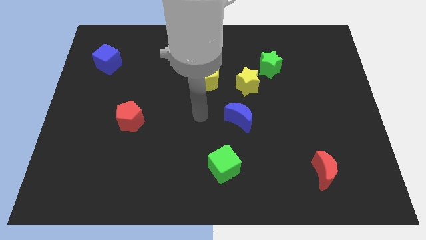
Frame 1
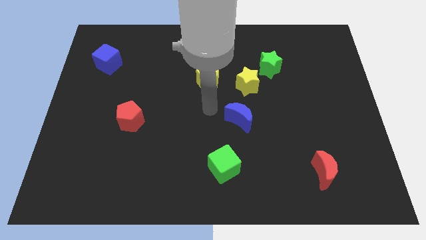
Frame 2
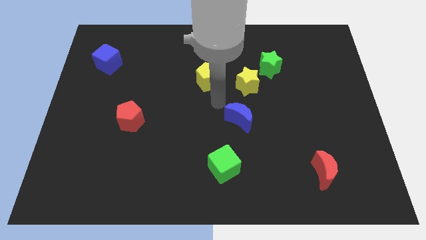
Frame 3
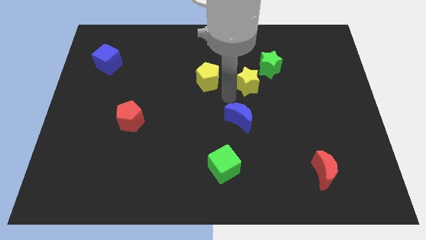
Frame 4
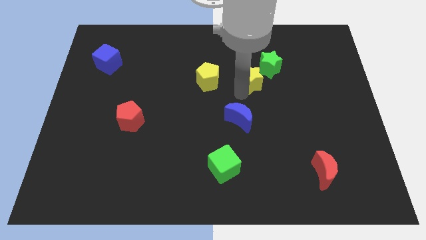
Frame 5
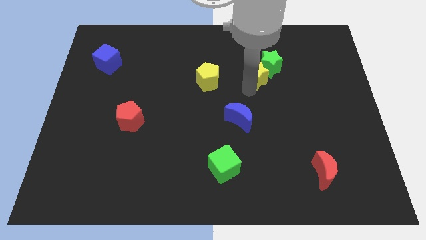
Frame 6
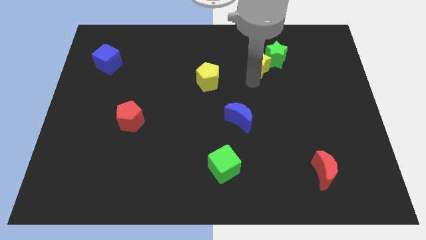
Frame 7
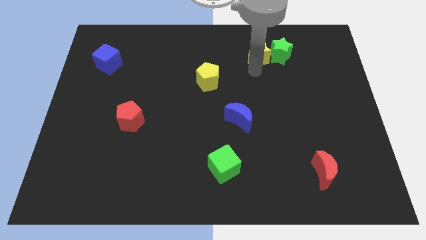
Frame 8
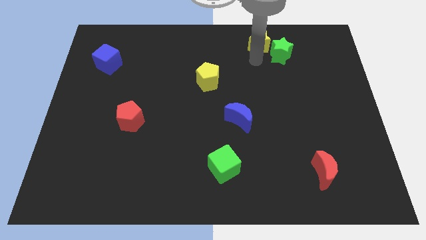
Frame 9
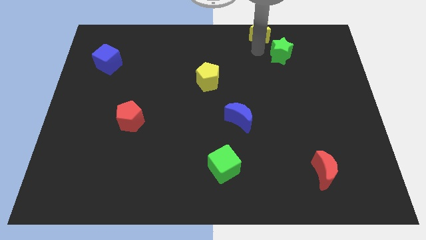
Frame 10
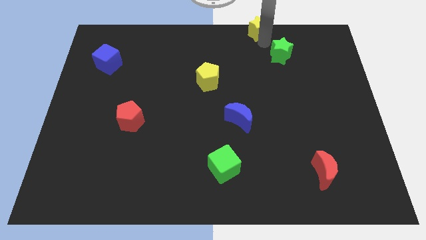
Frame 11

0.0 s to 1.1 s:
move the green star away from the yellow star

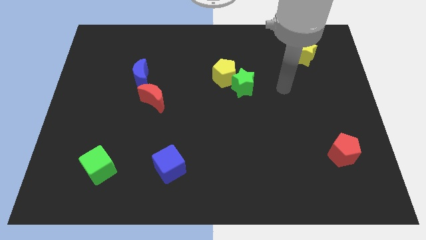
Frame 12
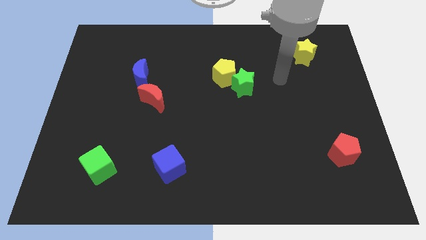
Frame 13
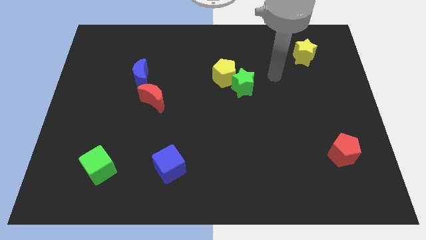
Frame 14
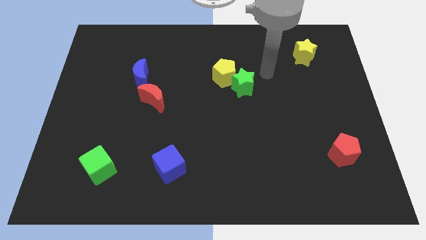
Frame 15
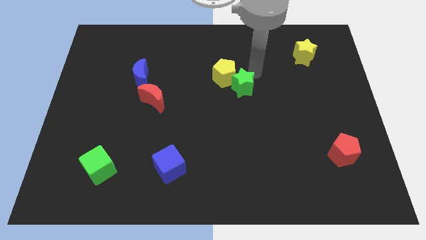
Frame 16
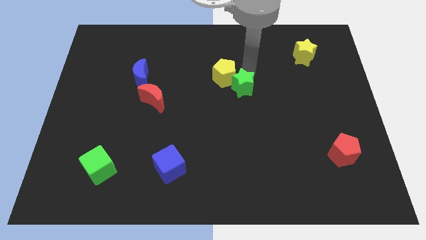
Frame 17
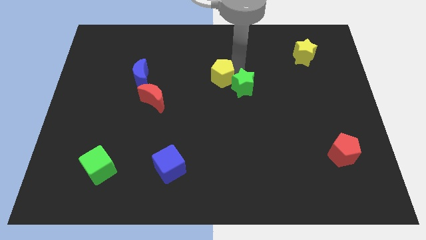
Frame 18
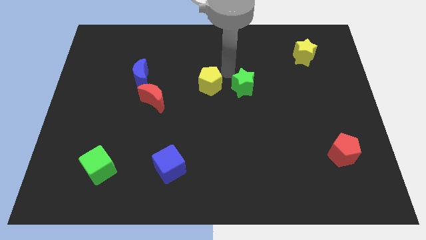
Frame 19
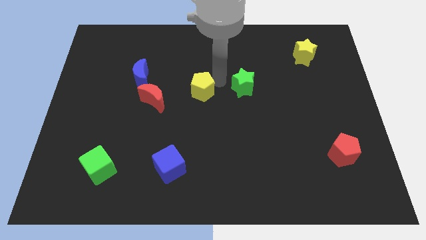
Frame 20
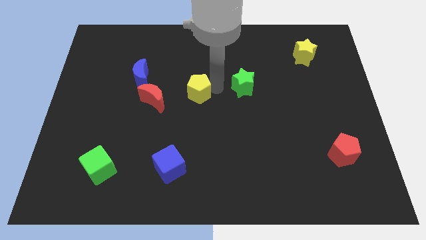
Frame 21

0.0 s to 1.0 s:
pull the green star apart from the yellow pentagon

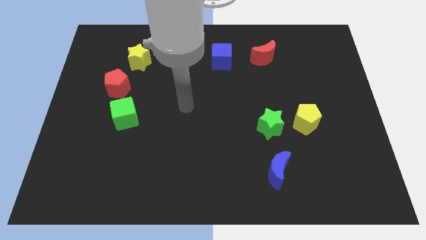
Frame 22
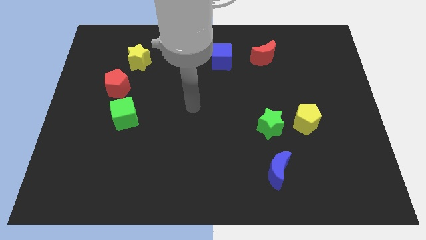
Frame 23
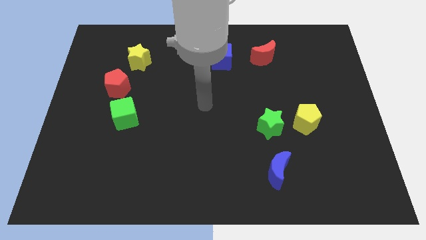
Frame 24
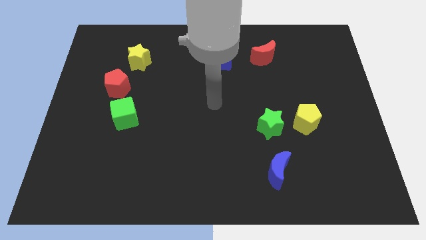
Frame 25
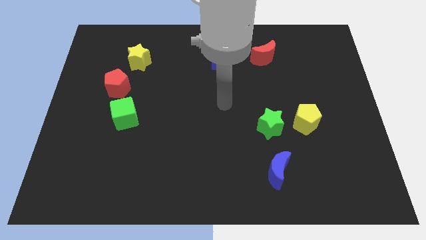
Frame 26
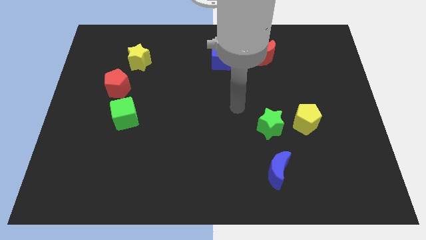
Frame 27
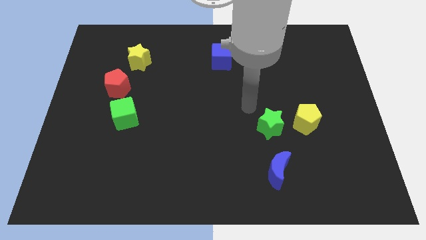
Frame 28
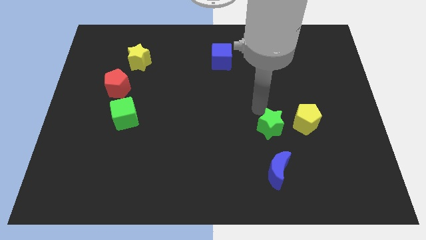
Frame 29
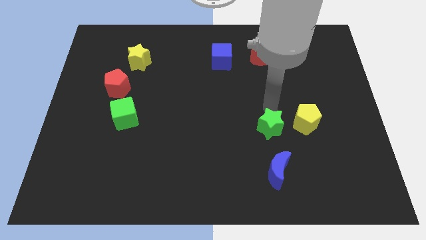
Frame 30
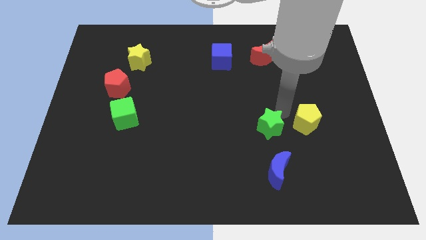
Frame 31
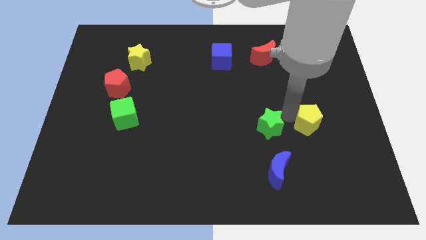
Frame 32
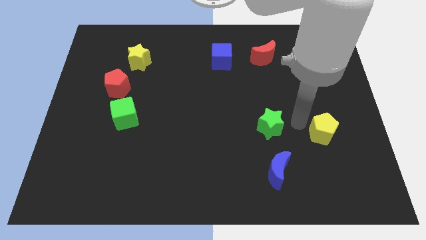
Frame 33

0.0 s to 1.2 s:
move the green star away from the yellow pentagon

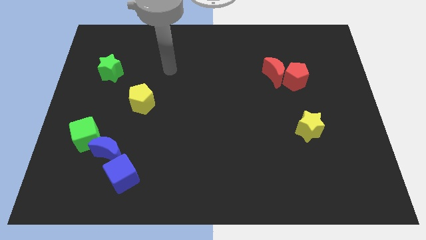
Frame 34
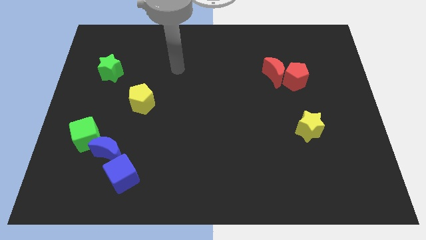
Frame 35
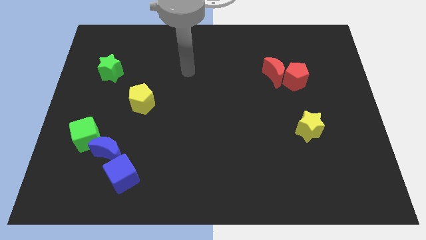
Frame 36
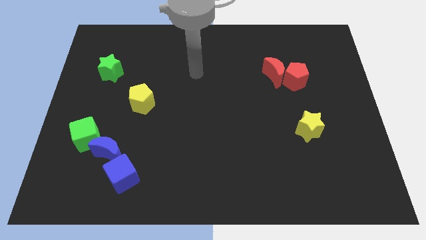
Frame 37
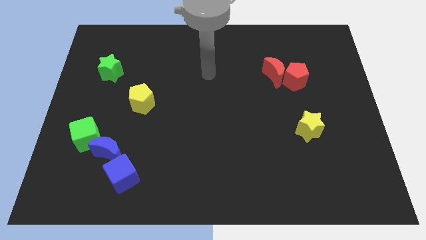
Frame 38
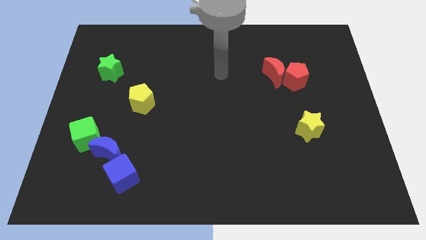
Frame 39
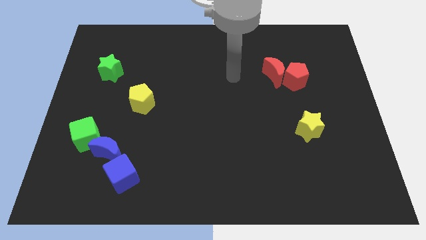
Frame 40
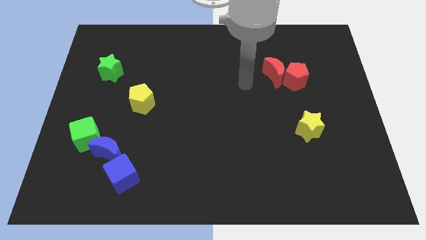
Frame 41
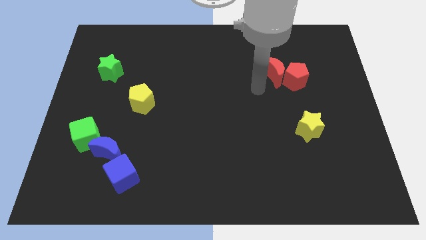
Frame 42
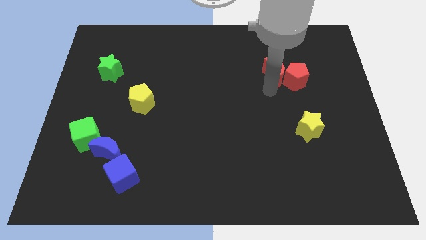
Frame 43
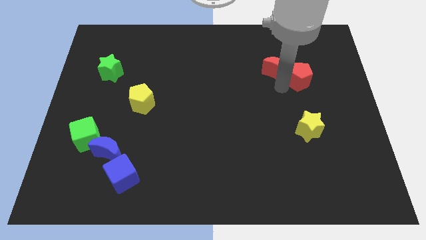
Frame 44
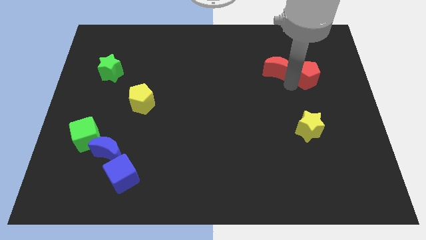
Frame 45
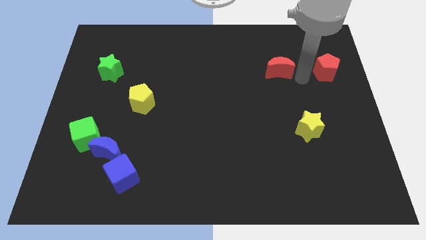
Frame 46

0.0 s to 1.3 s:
pull the red moon apart from the red pentagon

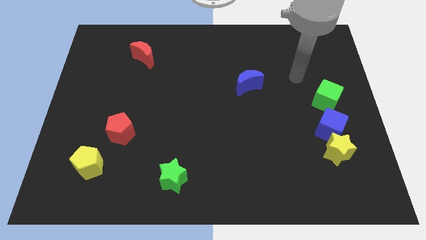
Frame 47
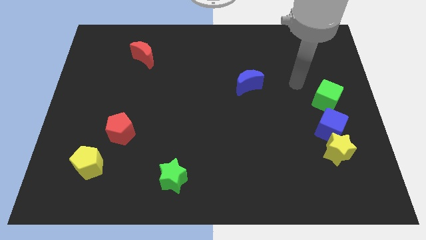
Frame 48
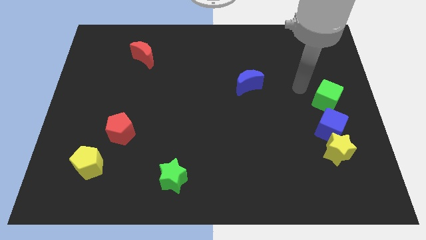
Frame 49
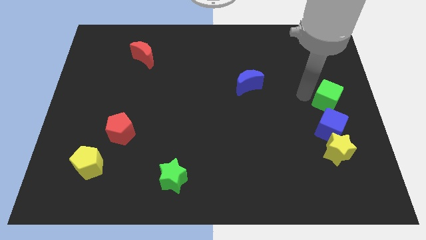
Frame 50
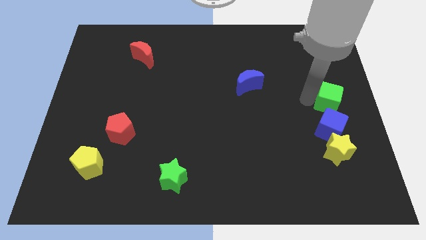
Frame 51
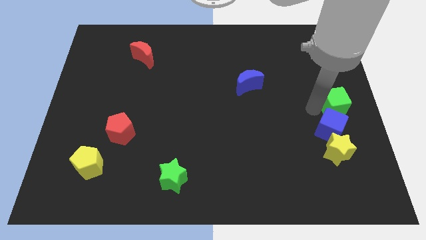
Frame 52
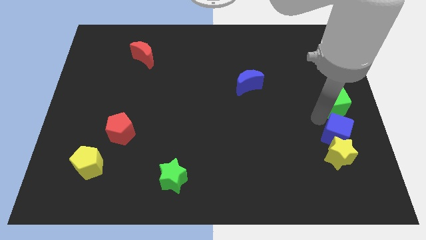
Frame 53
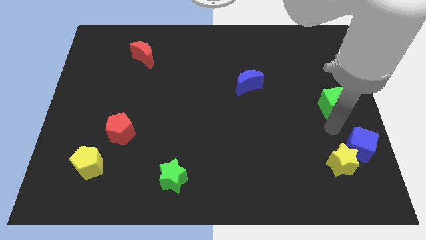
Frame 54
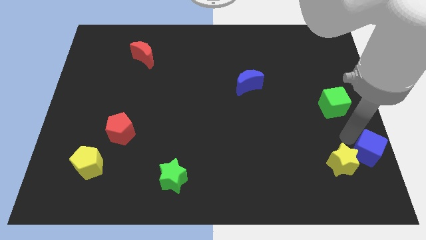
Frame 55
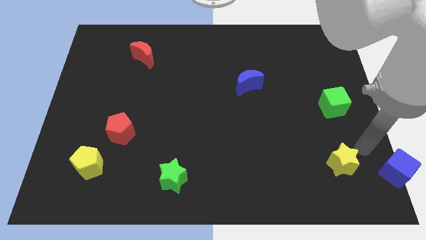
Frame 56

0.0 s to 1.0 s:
move the yellow star away from the blue cube

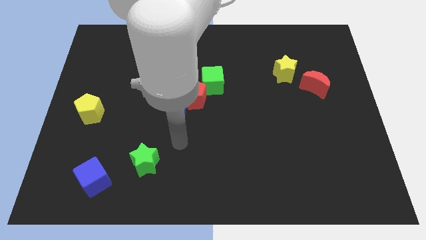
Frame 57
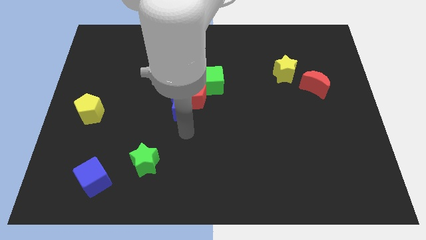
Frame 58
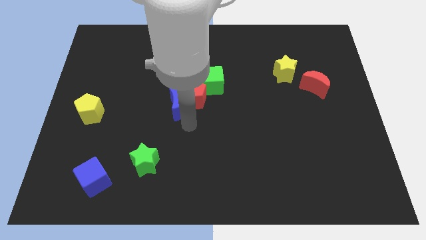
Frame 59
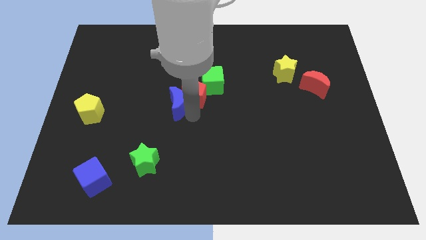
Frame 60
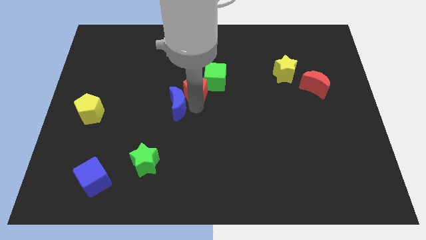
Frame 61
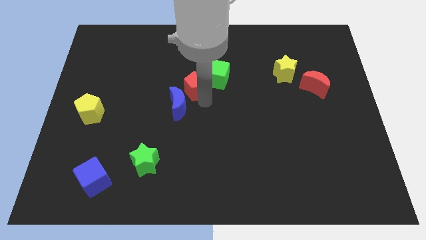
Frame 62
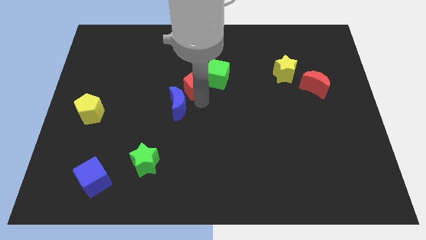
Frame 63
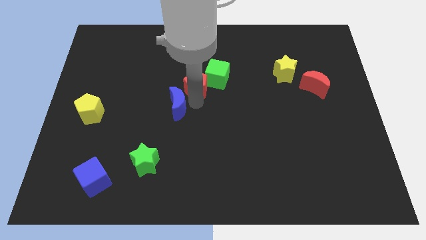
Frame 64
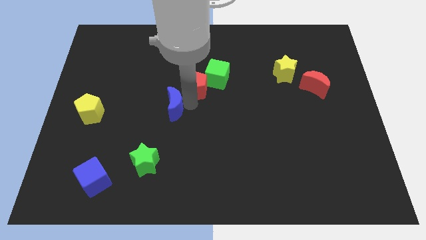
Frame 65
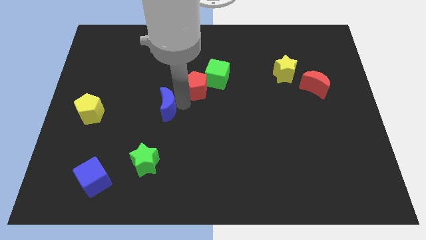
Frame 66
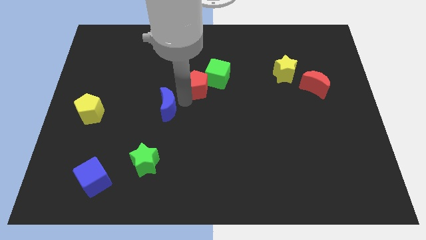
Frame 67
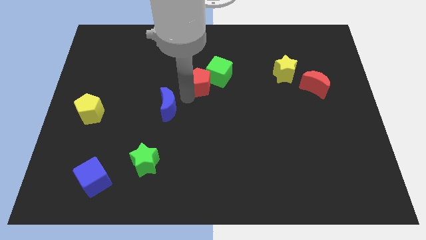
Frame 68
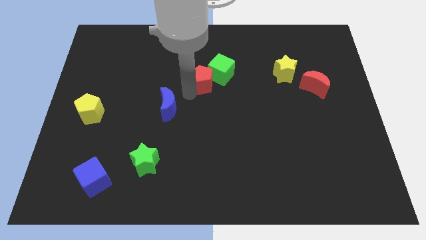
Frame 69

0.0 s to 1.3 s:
pull the blue moon apart from the red pentagon

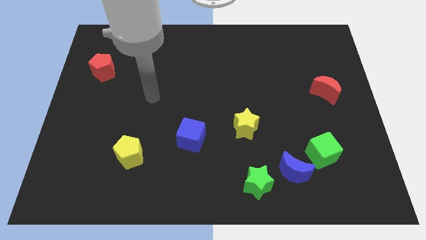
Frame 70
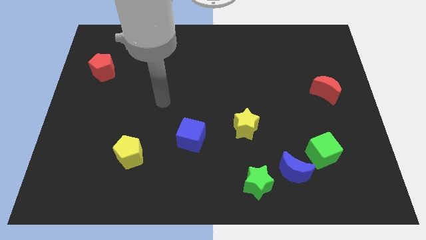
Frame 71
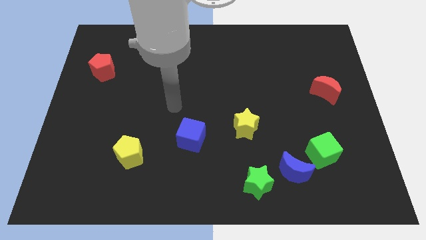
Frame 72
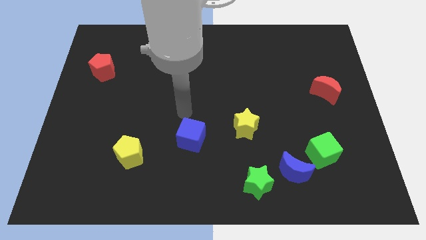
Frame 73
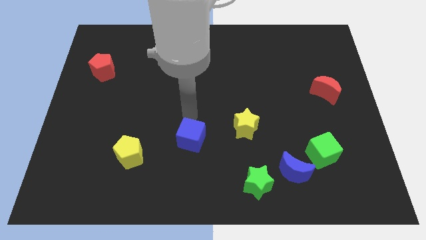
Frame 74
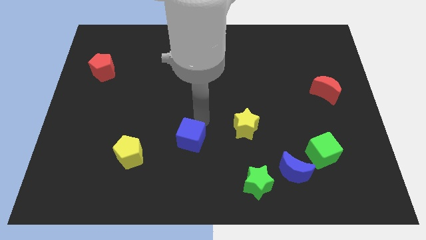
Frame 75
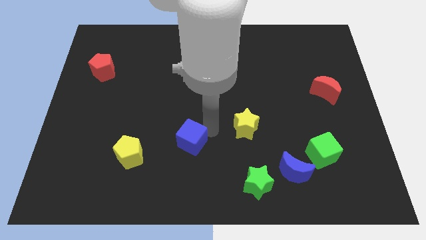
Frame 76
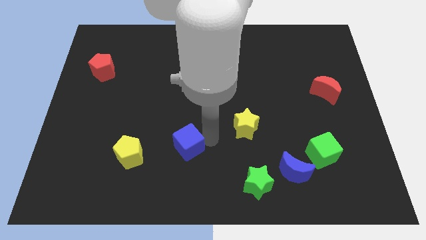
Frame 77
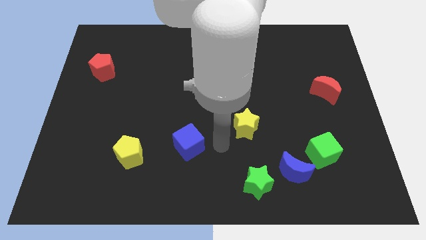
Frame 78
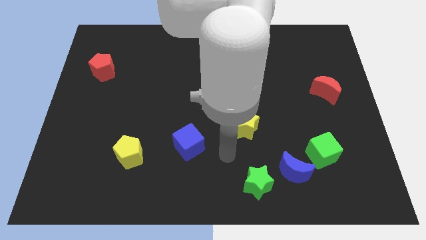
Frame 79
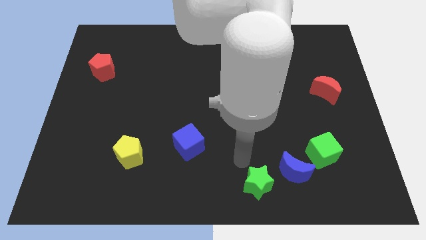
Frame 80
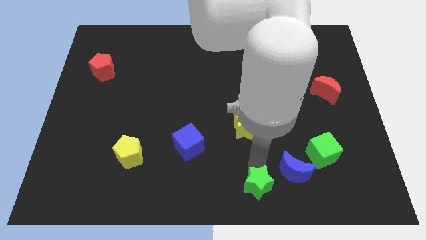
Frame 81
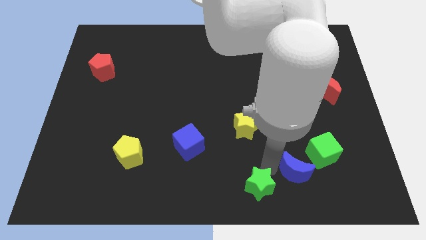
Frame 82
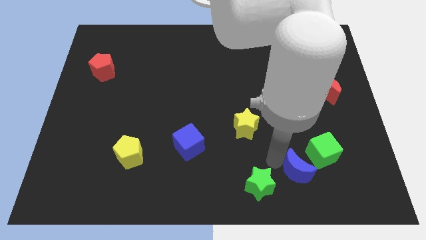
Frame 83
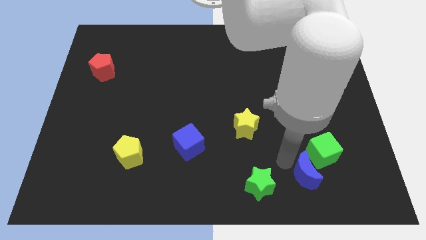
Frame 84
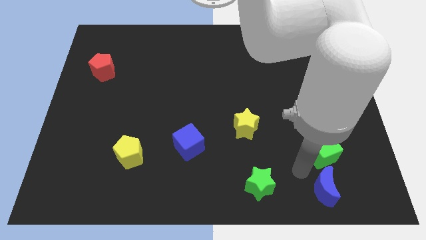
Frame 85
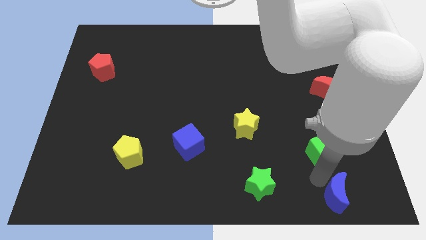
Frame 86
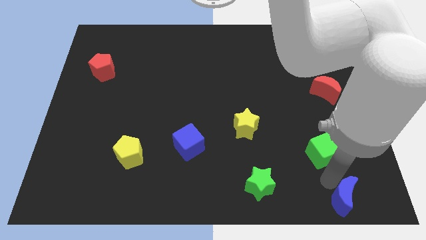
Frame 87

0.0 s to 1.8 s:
separate the green cube from the blue moon

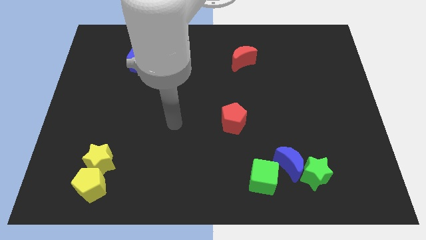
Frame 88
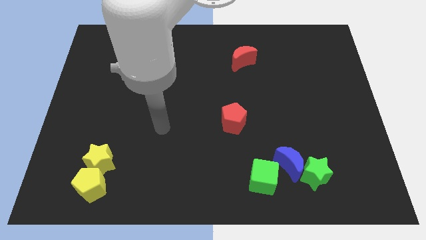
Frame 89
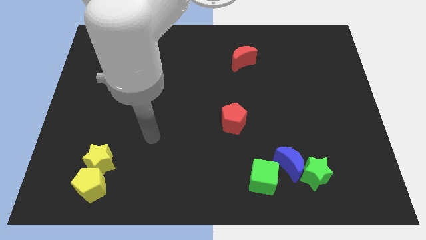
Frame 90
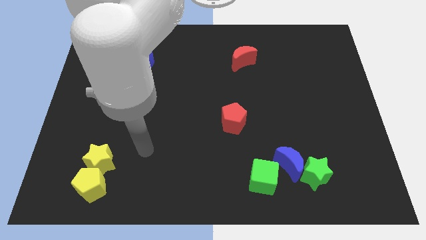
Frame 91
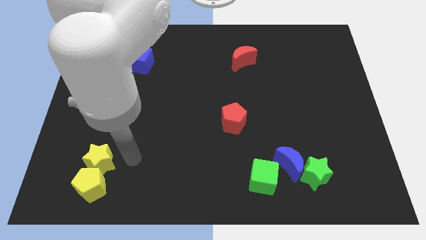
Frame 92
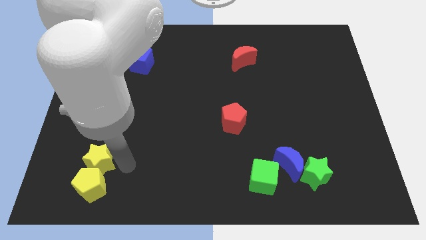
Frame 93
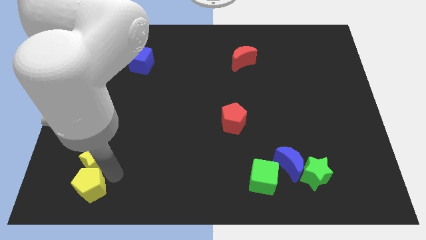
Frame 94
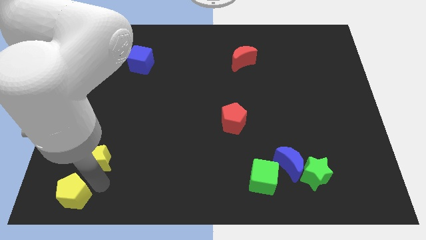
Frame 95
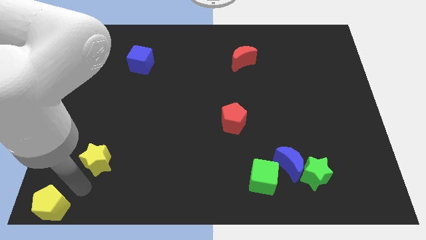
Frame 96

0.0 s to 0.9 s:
separate the yellow star from the yellow pentagon
